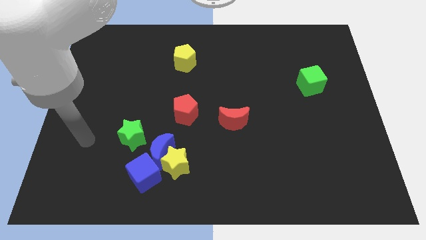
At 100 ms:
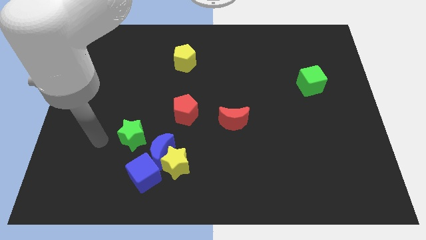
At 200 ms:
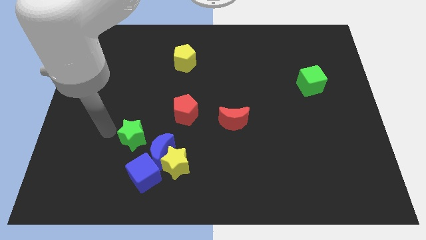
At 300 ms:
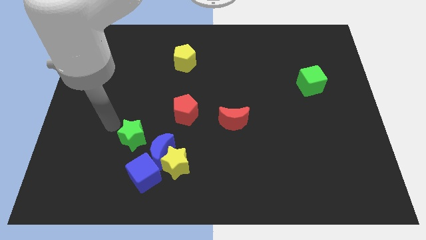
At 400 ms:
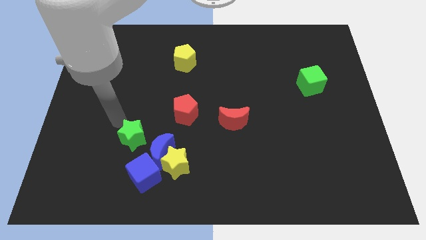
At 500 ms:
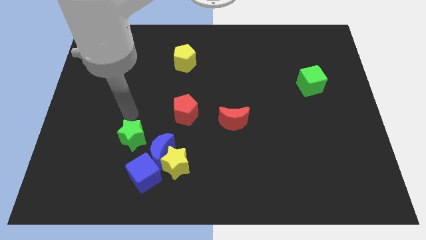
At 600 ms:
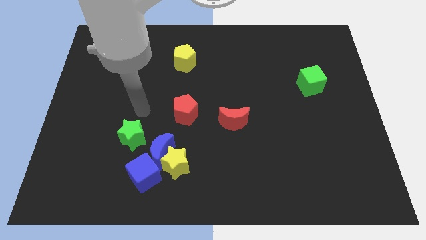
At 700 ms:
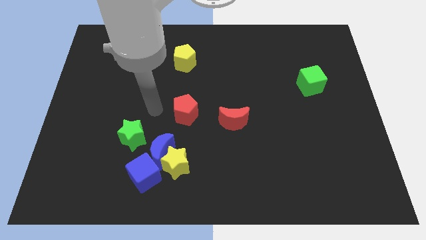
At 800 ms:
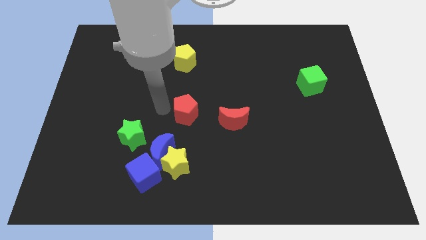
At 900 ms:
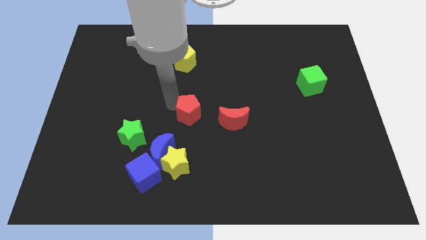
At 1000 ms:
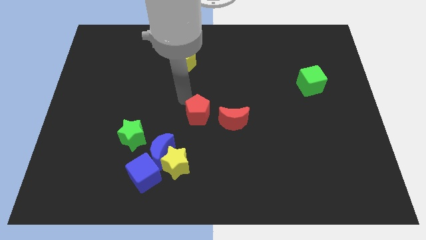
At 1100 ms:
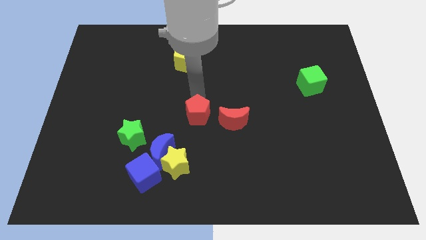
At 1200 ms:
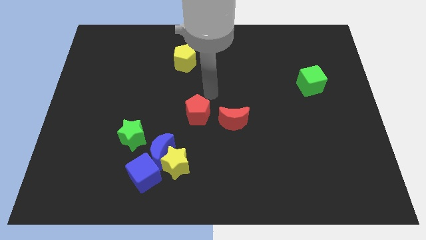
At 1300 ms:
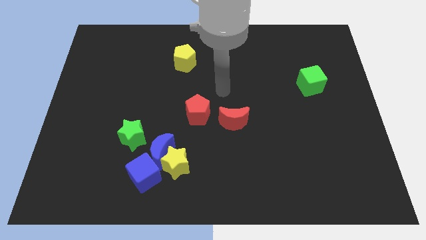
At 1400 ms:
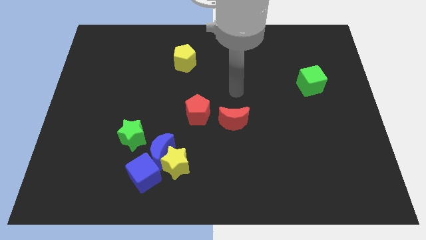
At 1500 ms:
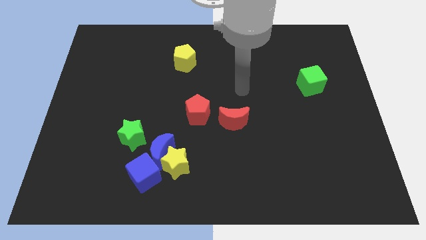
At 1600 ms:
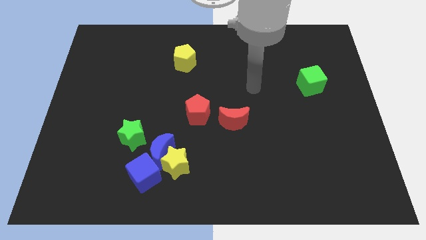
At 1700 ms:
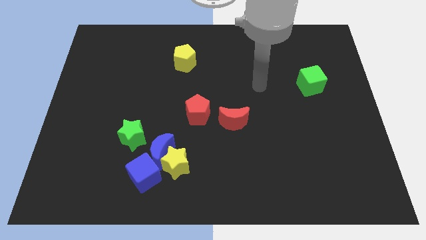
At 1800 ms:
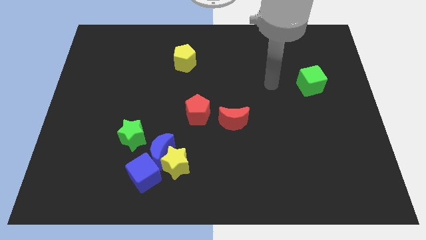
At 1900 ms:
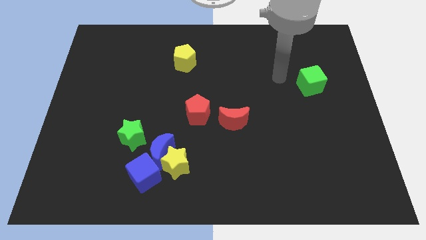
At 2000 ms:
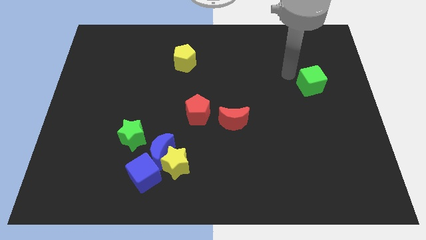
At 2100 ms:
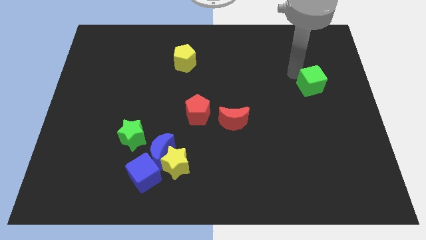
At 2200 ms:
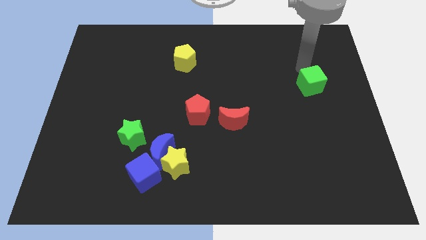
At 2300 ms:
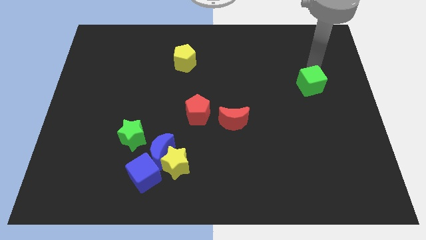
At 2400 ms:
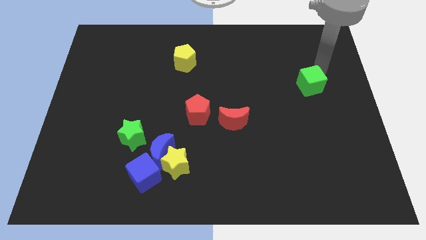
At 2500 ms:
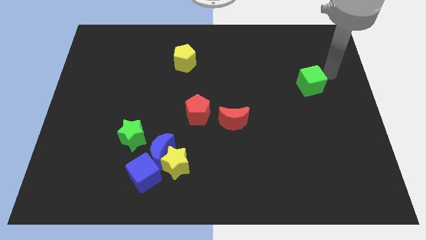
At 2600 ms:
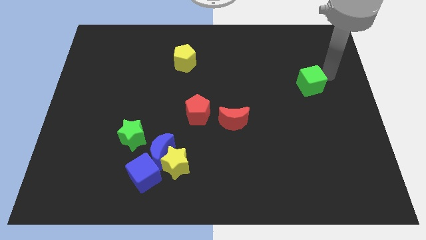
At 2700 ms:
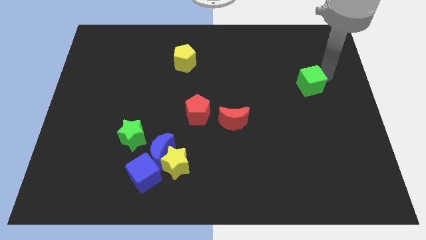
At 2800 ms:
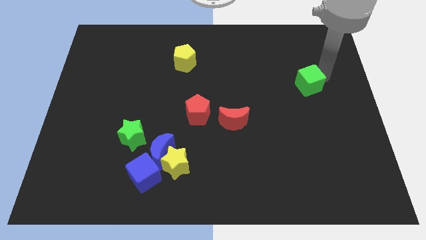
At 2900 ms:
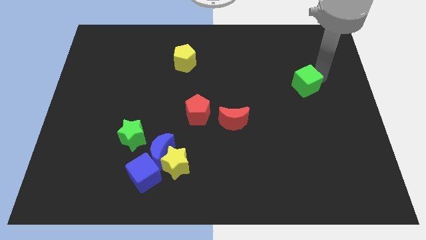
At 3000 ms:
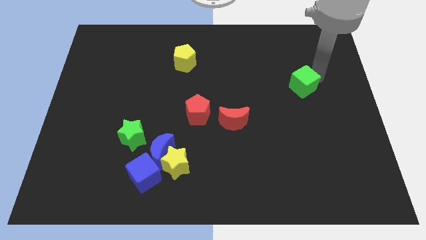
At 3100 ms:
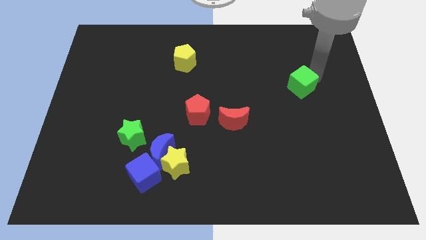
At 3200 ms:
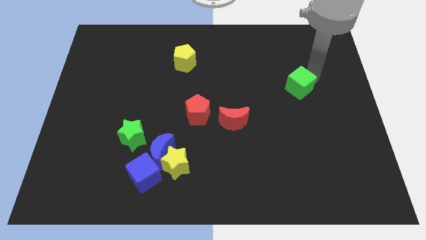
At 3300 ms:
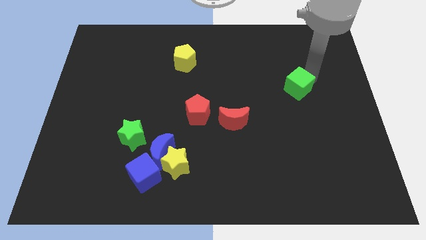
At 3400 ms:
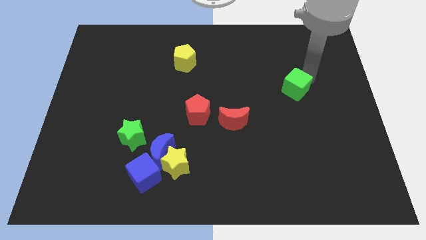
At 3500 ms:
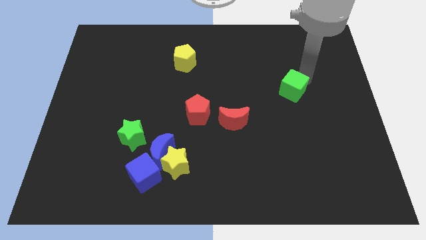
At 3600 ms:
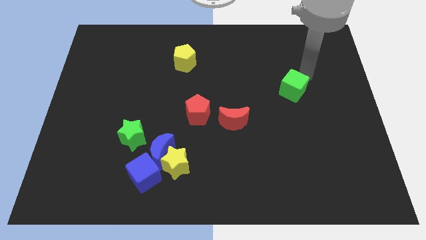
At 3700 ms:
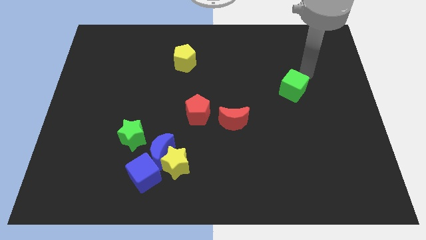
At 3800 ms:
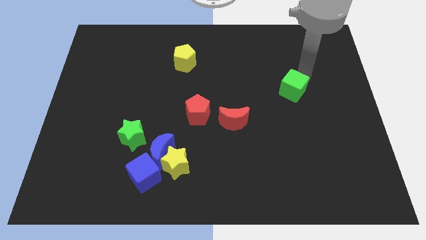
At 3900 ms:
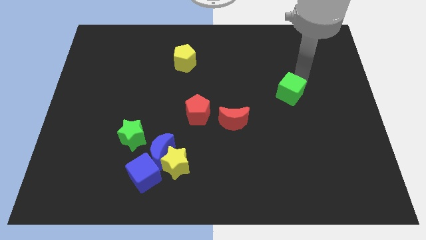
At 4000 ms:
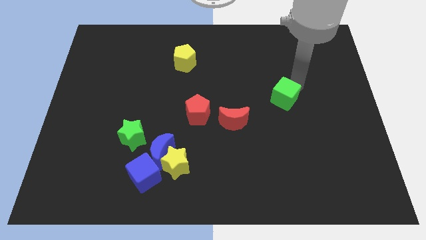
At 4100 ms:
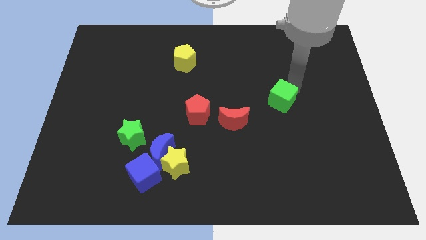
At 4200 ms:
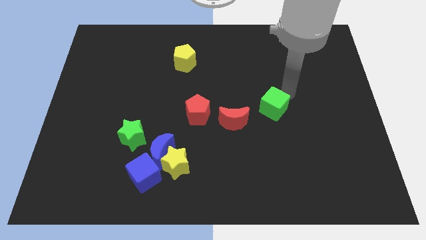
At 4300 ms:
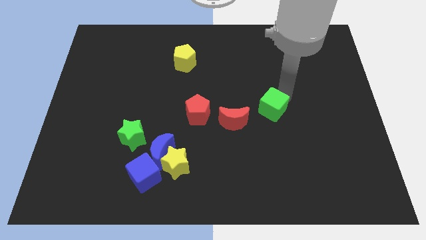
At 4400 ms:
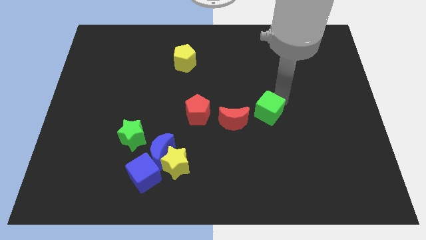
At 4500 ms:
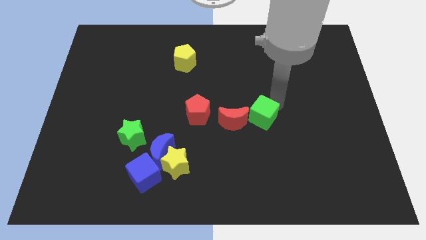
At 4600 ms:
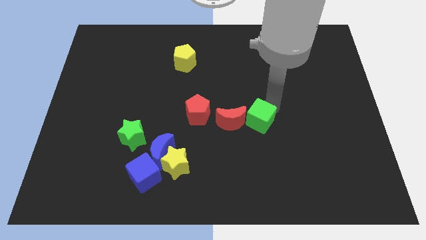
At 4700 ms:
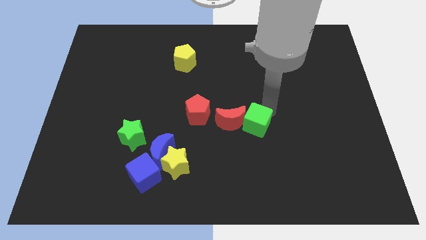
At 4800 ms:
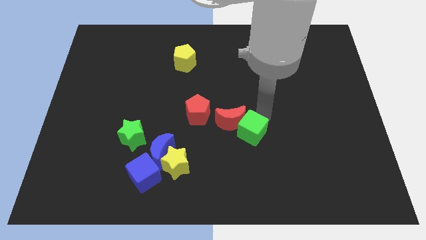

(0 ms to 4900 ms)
push the green cube down and then left

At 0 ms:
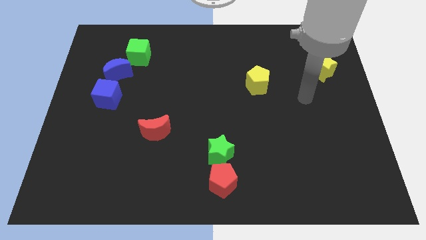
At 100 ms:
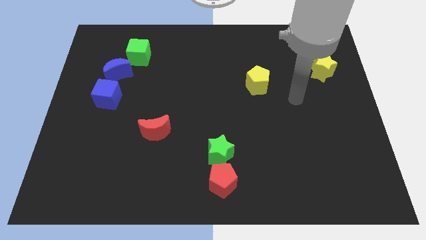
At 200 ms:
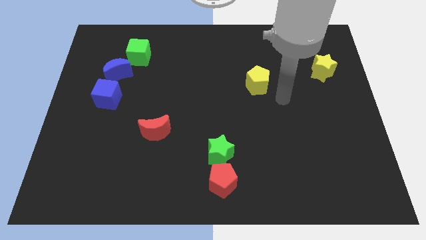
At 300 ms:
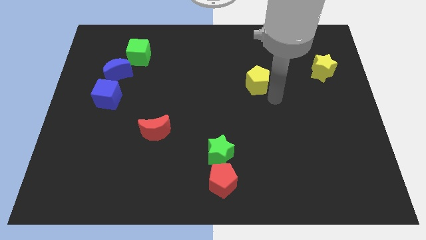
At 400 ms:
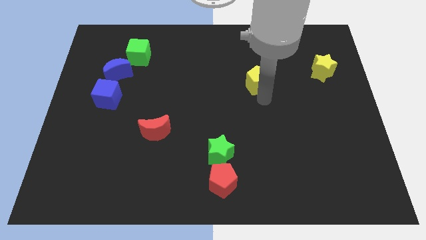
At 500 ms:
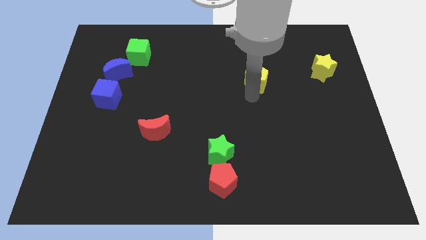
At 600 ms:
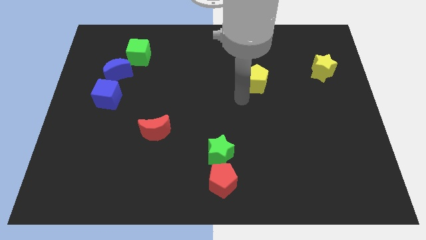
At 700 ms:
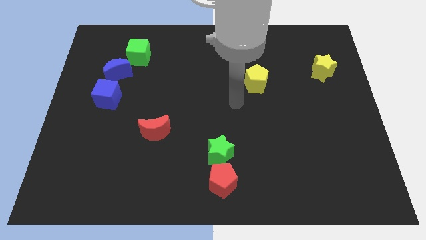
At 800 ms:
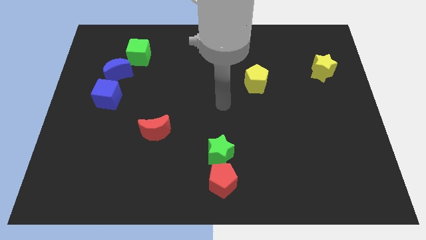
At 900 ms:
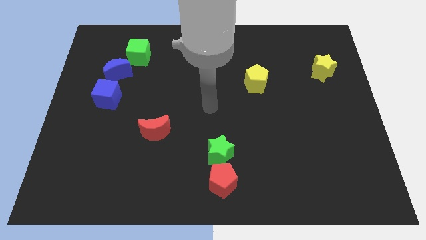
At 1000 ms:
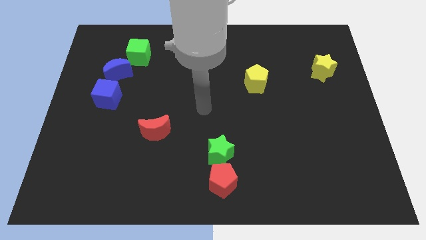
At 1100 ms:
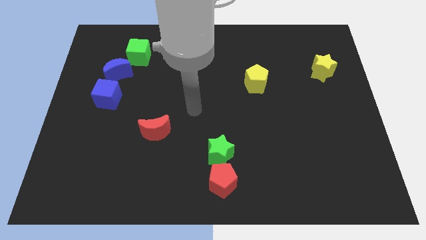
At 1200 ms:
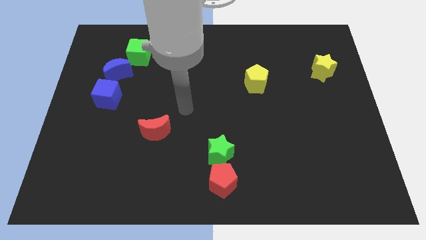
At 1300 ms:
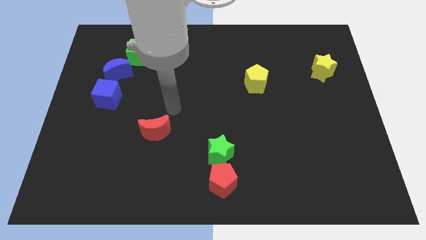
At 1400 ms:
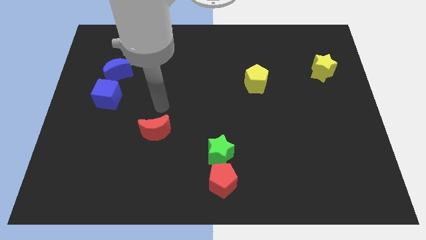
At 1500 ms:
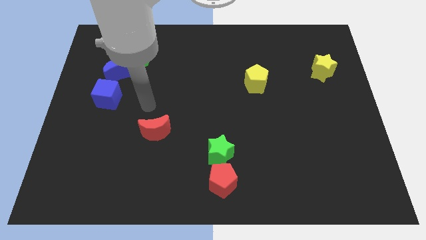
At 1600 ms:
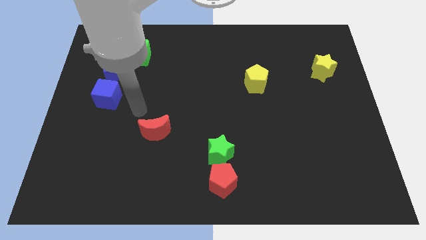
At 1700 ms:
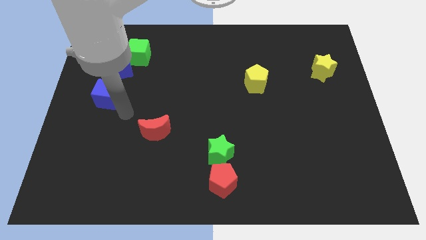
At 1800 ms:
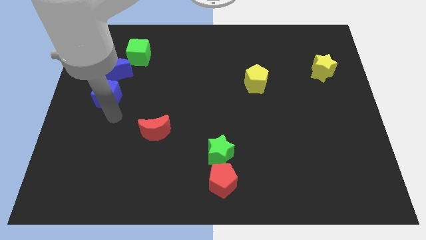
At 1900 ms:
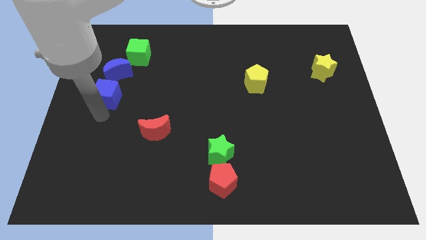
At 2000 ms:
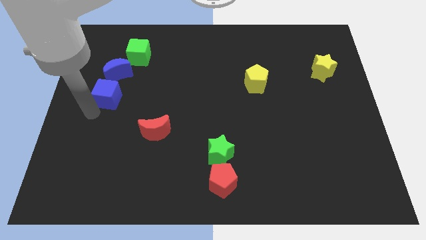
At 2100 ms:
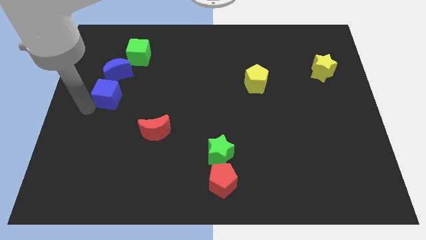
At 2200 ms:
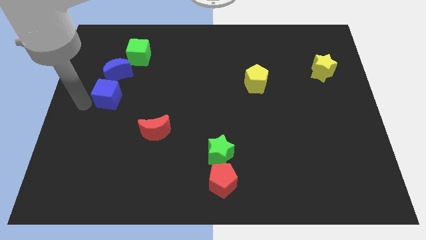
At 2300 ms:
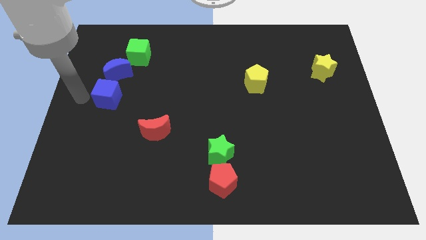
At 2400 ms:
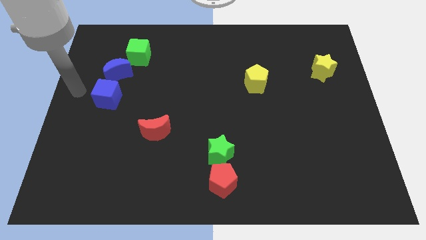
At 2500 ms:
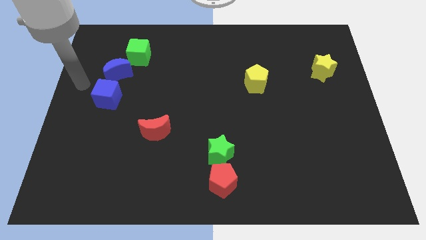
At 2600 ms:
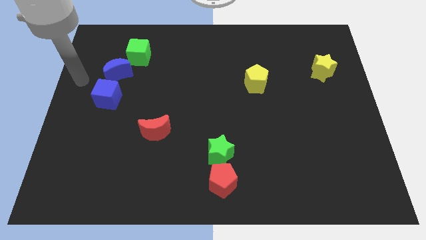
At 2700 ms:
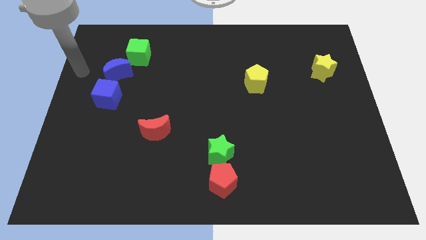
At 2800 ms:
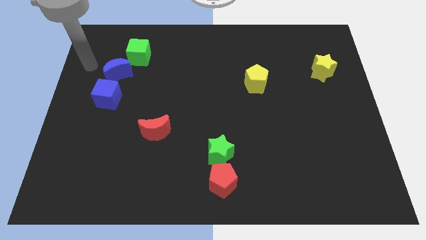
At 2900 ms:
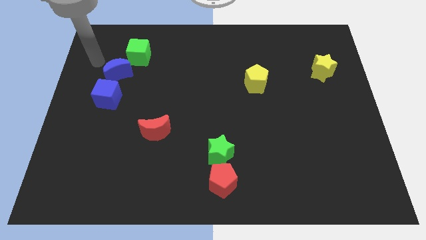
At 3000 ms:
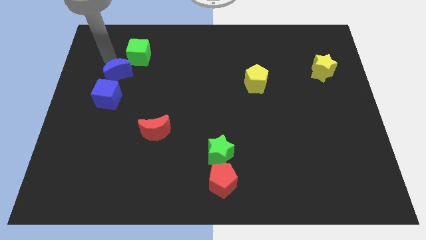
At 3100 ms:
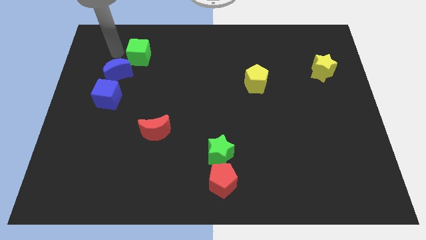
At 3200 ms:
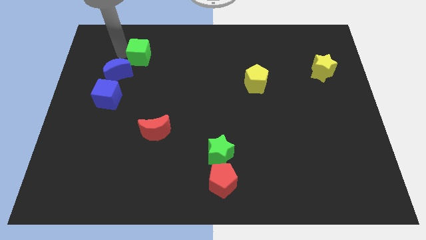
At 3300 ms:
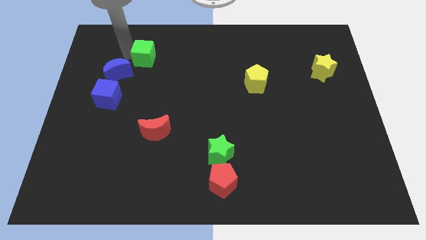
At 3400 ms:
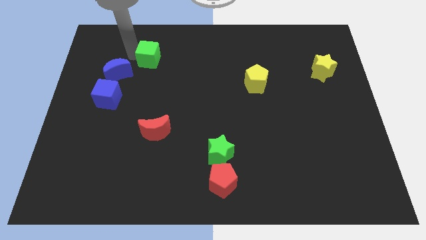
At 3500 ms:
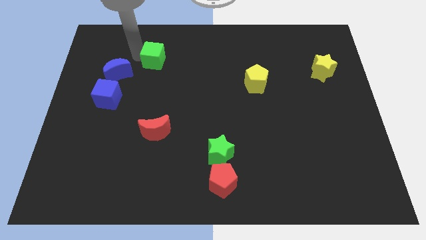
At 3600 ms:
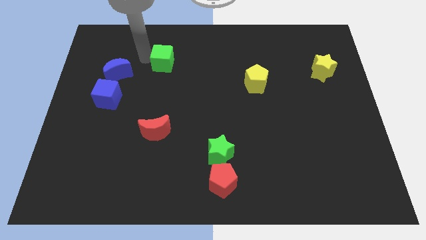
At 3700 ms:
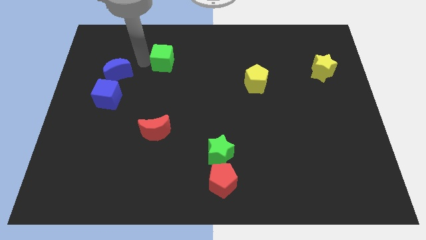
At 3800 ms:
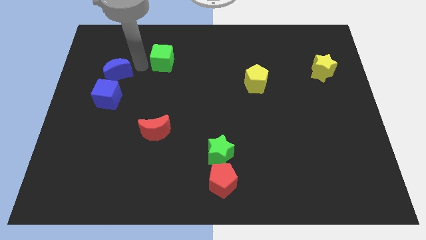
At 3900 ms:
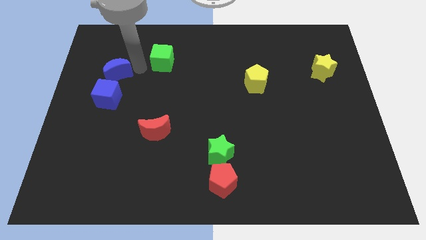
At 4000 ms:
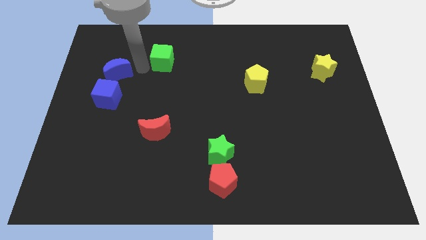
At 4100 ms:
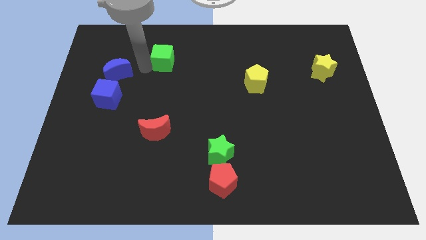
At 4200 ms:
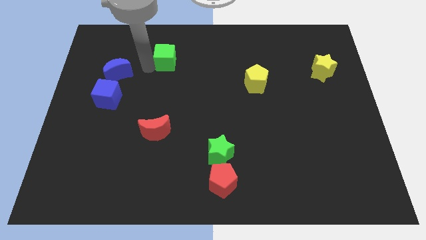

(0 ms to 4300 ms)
move the green cube a little right
